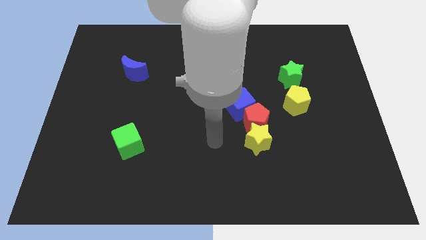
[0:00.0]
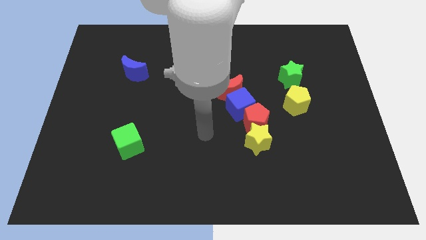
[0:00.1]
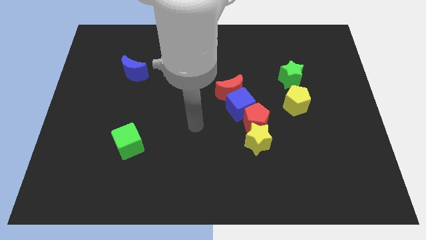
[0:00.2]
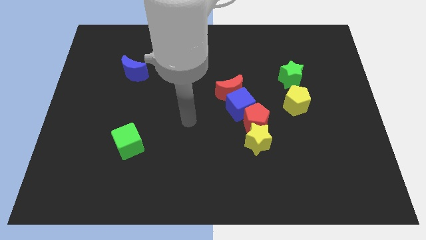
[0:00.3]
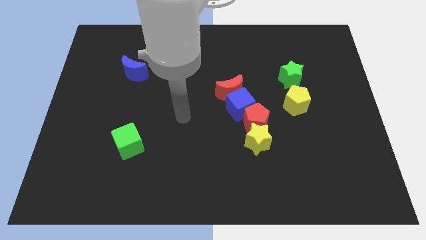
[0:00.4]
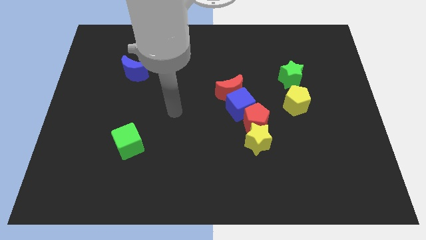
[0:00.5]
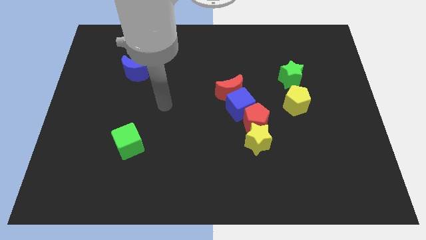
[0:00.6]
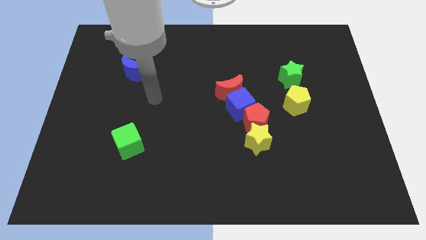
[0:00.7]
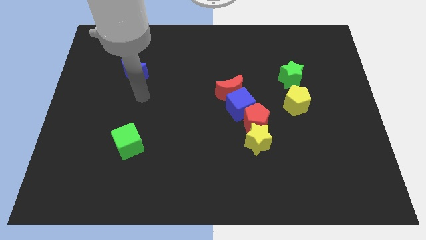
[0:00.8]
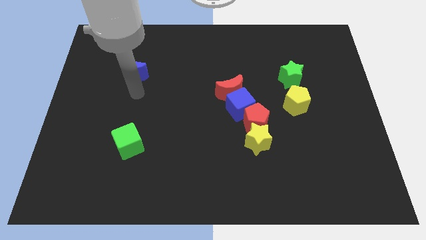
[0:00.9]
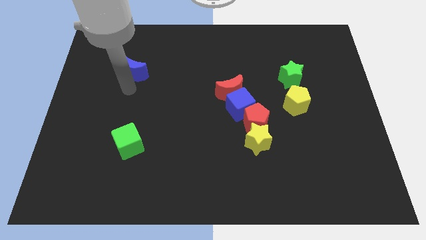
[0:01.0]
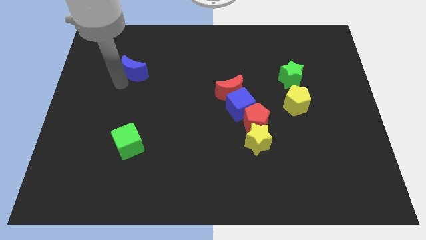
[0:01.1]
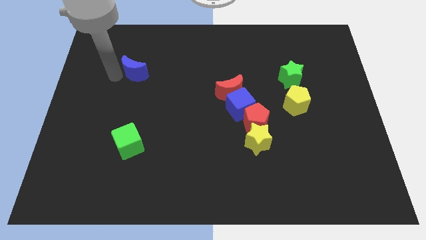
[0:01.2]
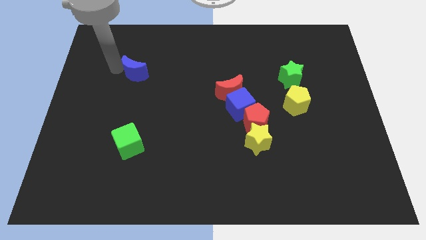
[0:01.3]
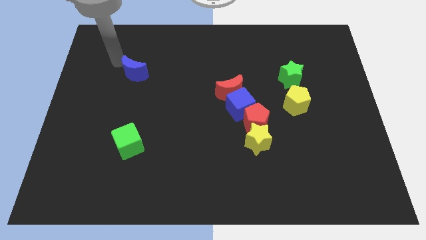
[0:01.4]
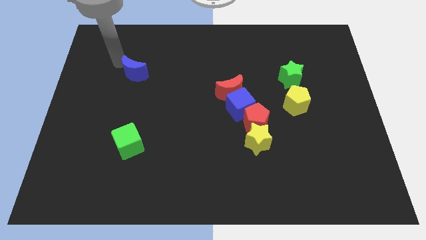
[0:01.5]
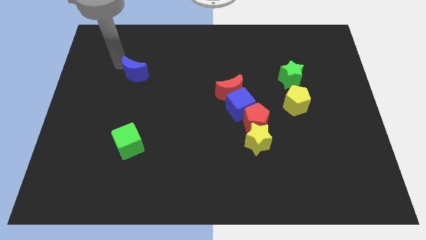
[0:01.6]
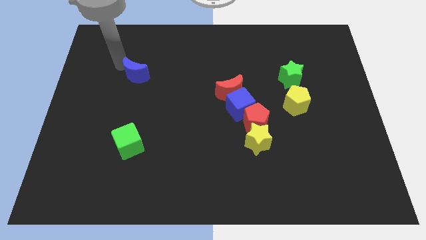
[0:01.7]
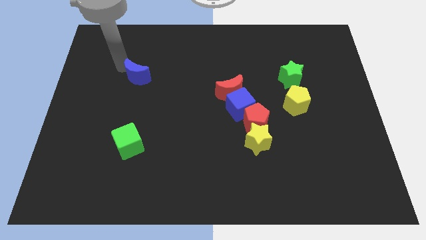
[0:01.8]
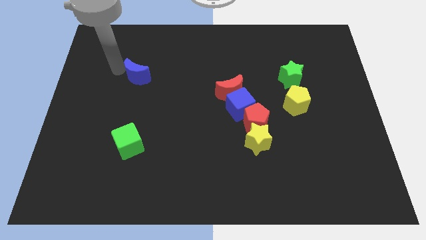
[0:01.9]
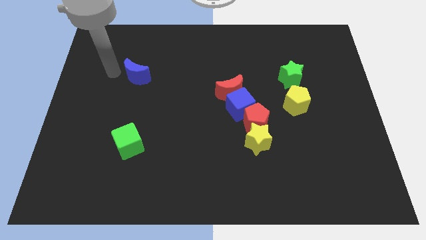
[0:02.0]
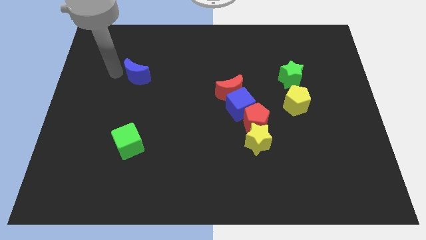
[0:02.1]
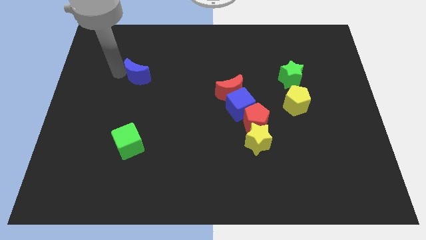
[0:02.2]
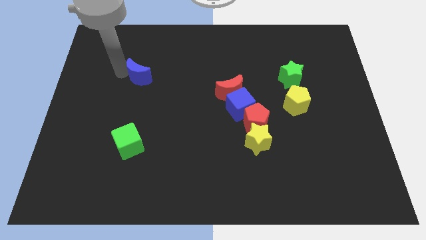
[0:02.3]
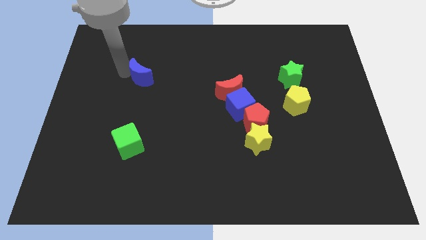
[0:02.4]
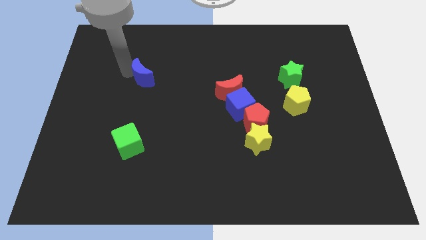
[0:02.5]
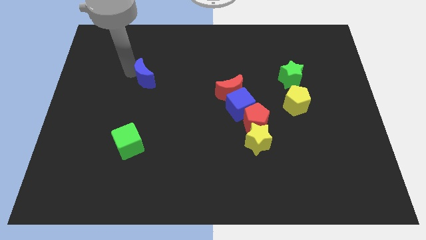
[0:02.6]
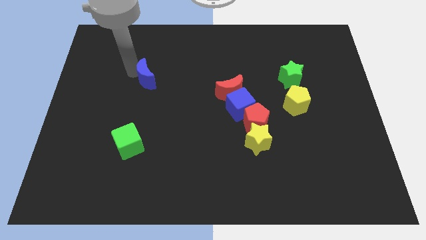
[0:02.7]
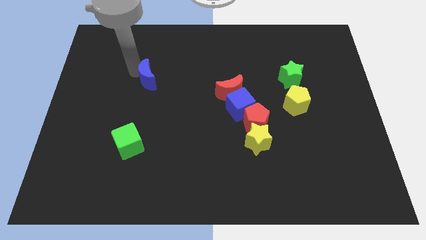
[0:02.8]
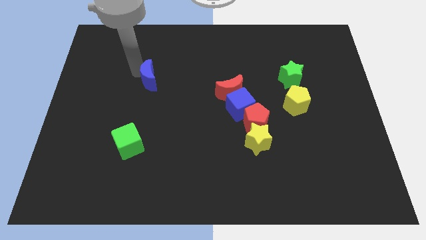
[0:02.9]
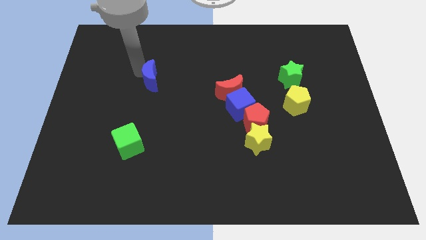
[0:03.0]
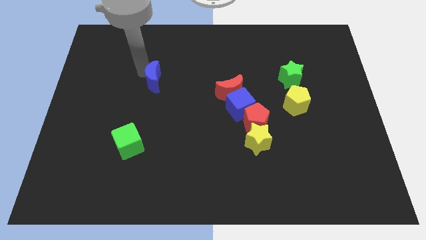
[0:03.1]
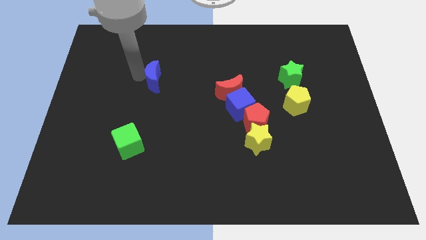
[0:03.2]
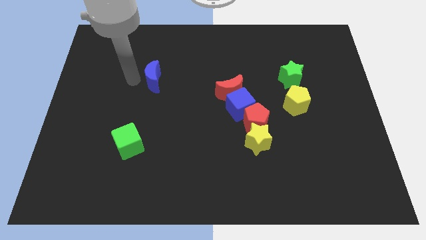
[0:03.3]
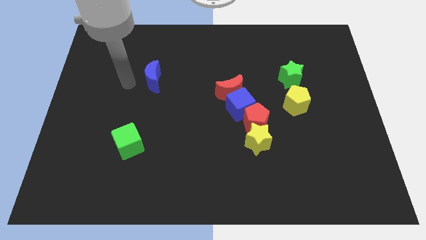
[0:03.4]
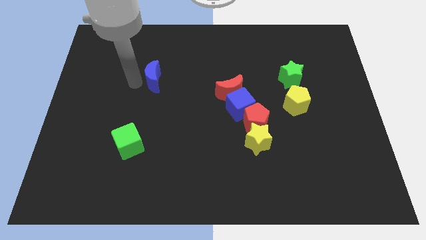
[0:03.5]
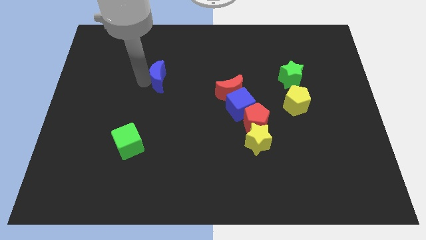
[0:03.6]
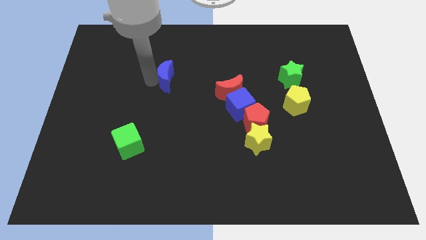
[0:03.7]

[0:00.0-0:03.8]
move the blue moon a little to the right

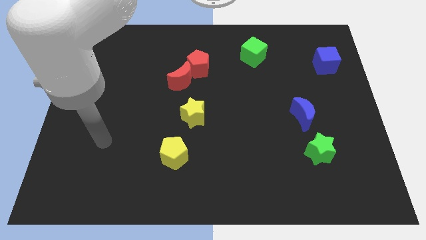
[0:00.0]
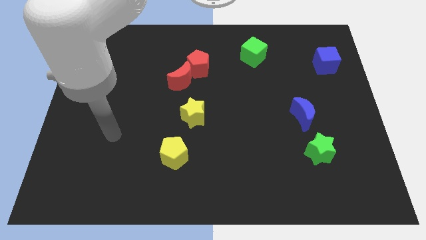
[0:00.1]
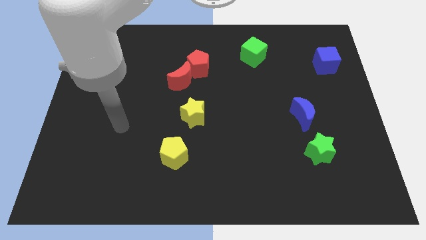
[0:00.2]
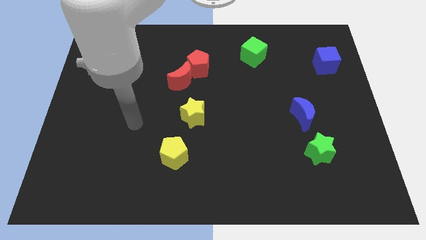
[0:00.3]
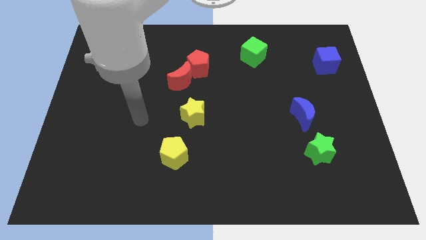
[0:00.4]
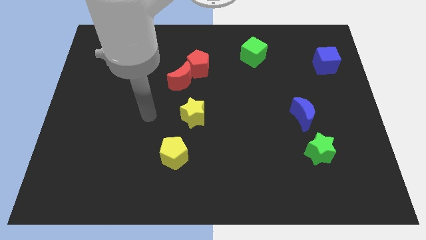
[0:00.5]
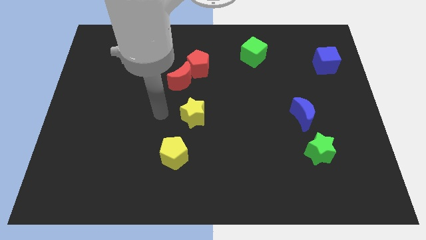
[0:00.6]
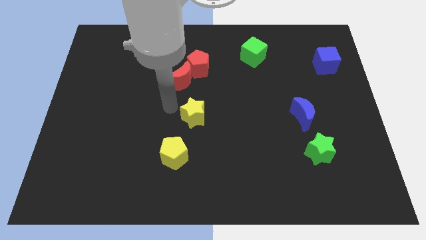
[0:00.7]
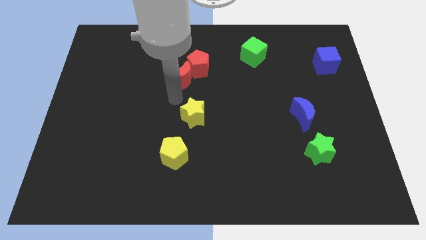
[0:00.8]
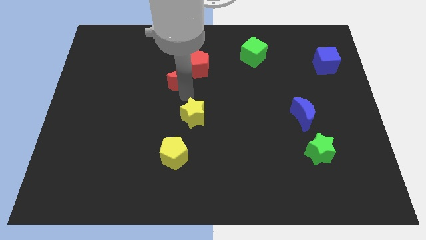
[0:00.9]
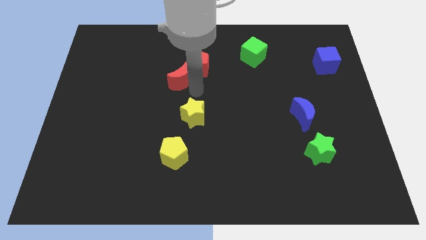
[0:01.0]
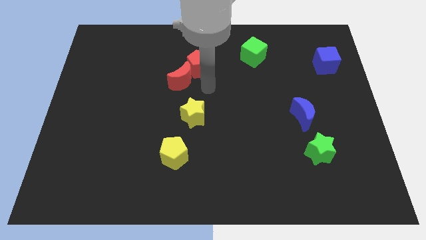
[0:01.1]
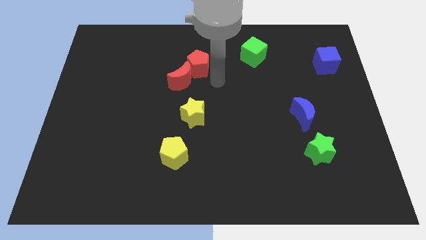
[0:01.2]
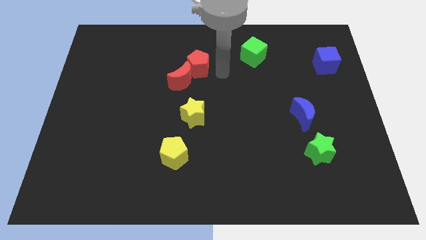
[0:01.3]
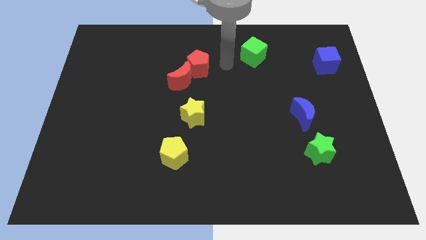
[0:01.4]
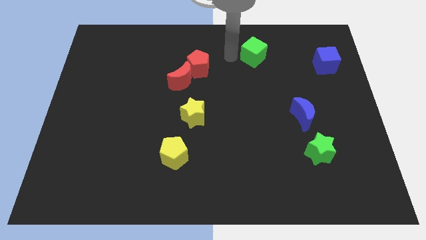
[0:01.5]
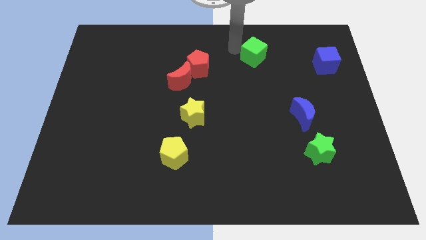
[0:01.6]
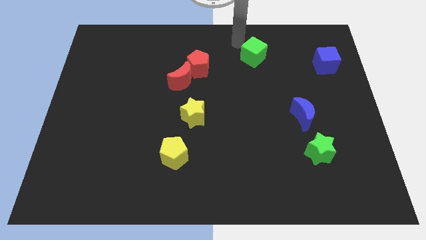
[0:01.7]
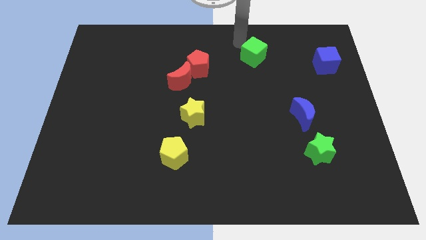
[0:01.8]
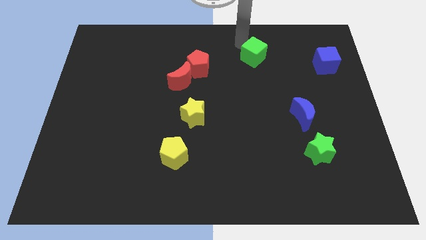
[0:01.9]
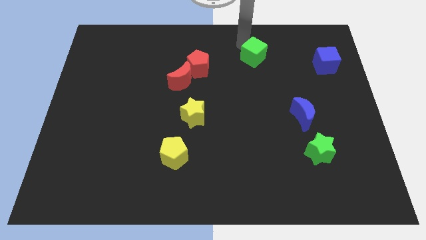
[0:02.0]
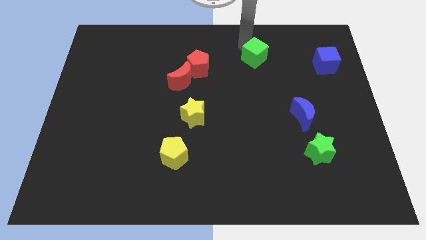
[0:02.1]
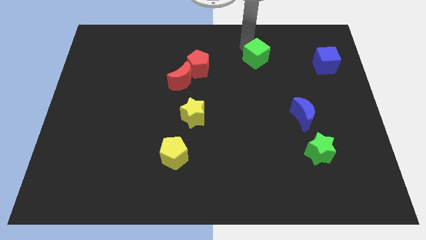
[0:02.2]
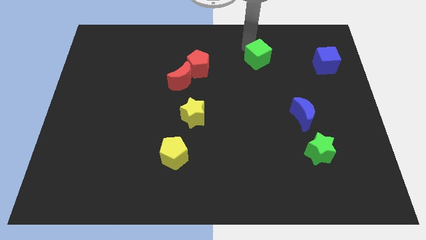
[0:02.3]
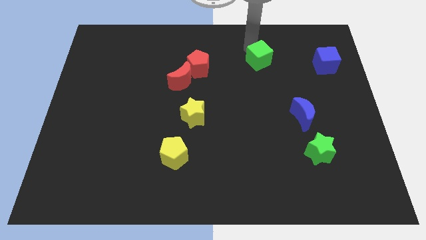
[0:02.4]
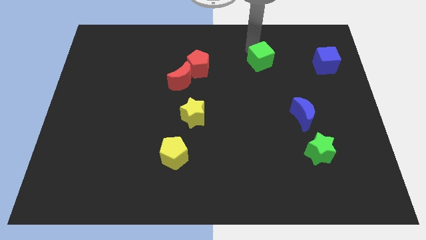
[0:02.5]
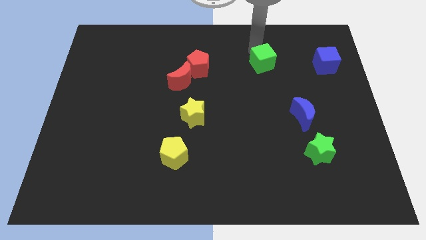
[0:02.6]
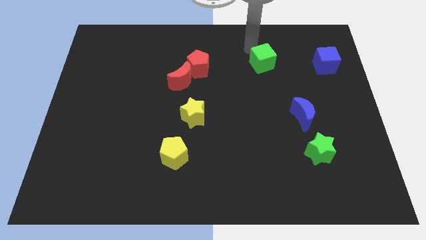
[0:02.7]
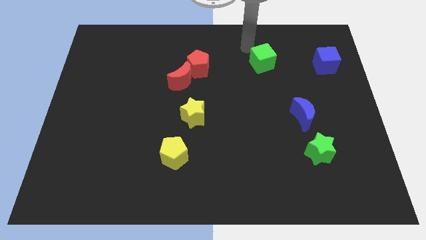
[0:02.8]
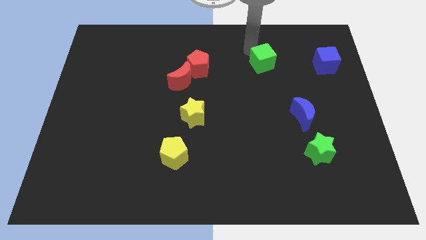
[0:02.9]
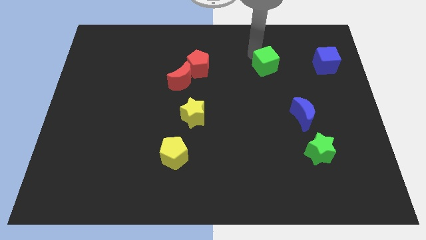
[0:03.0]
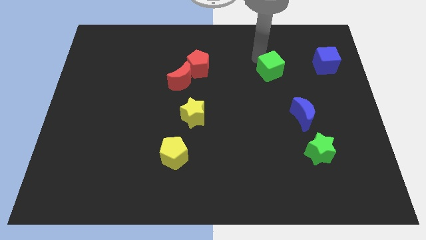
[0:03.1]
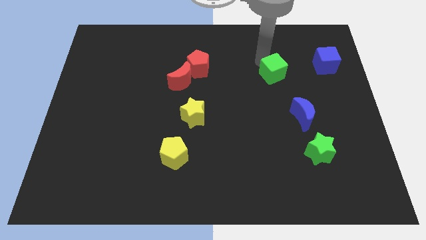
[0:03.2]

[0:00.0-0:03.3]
move the green cube somewhat down and then to the right

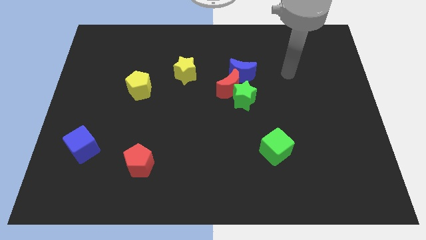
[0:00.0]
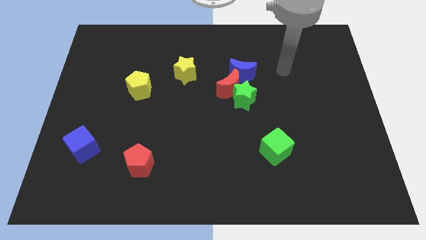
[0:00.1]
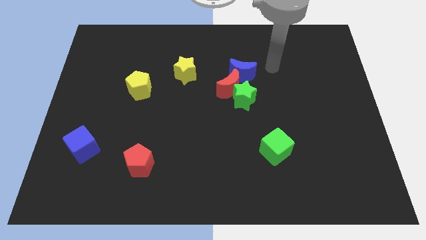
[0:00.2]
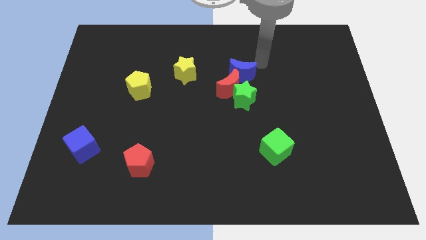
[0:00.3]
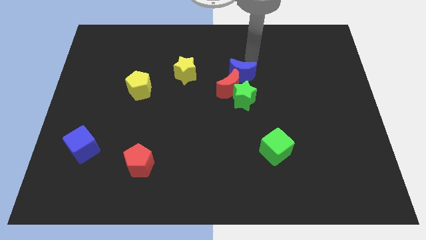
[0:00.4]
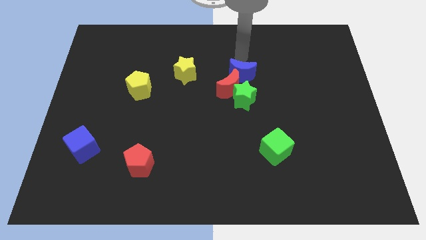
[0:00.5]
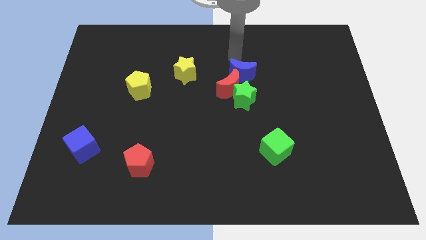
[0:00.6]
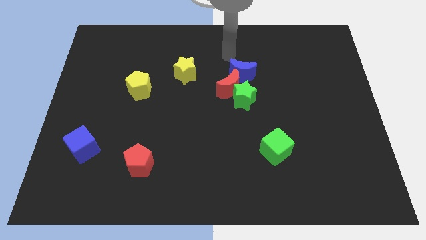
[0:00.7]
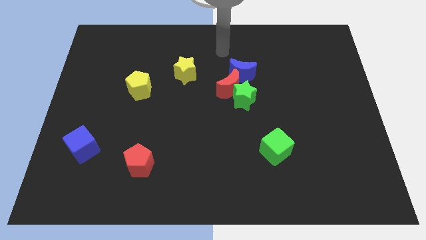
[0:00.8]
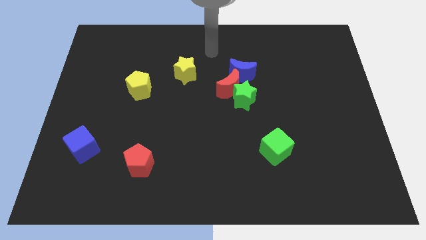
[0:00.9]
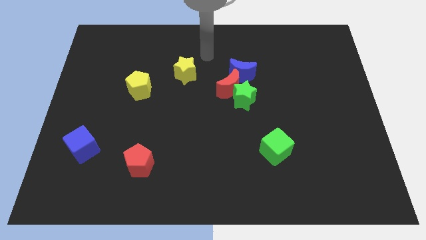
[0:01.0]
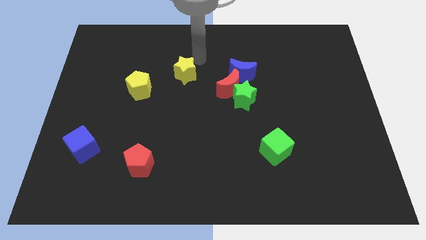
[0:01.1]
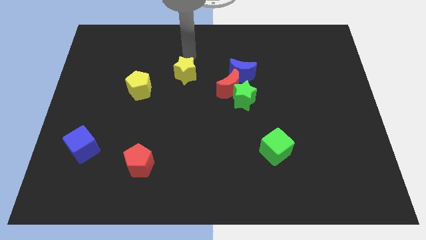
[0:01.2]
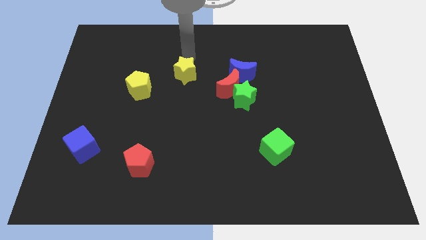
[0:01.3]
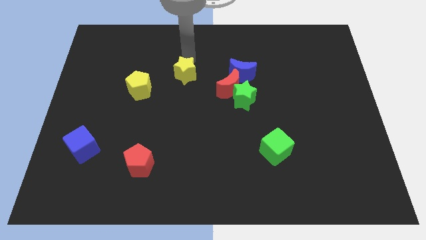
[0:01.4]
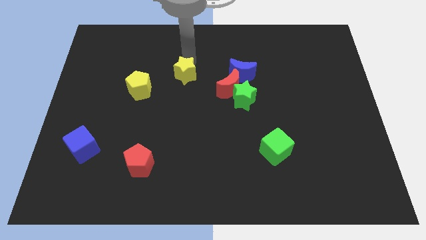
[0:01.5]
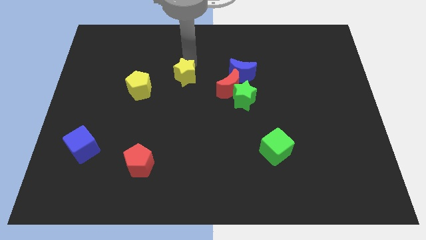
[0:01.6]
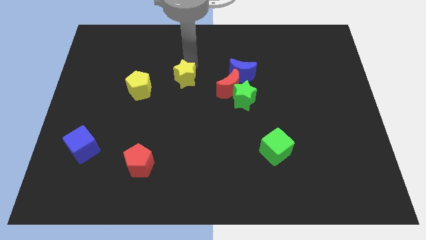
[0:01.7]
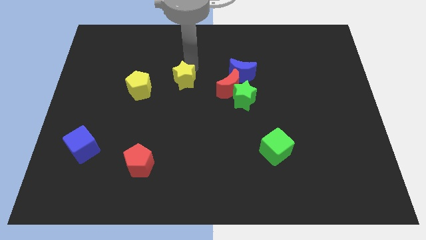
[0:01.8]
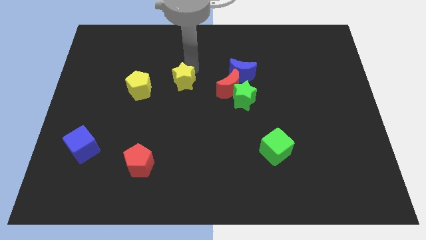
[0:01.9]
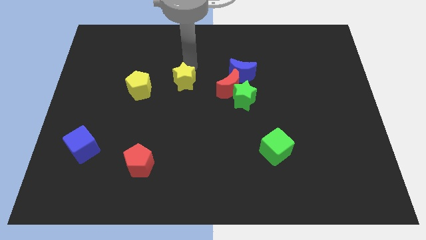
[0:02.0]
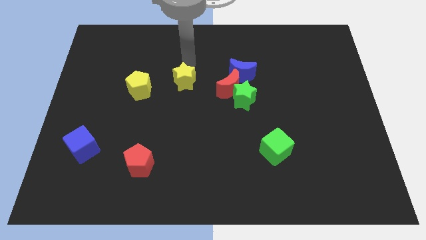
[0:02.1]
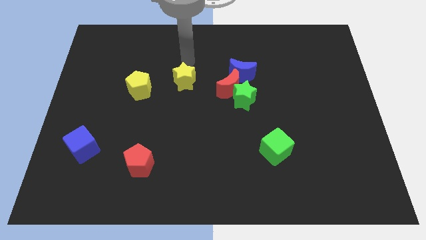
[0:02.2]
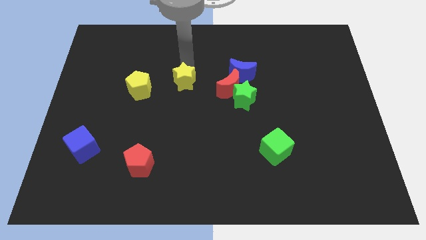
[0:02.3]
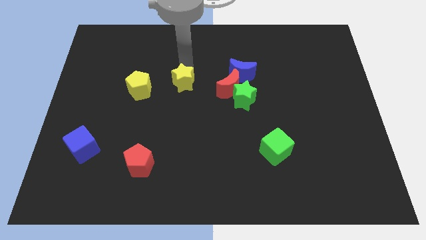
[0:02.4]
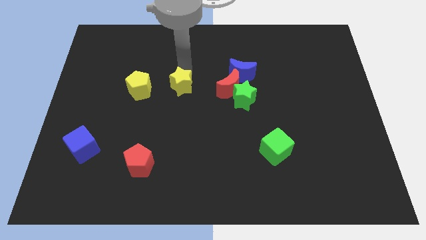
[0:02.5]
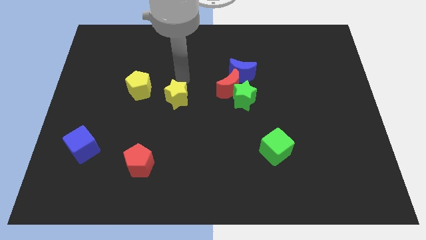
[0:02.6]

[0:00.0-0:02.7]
slightly push the yellow star downwards
